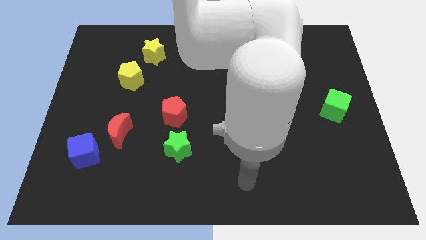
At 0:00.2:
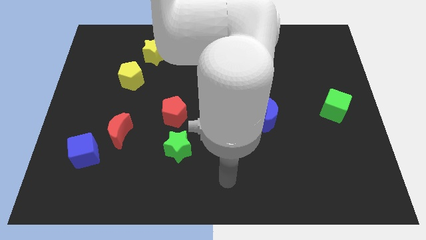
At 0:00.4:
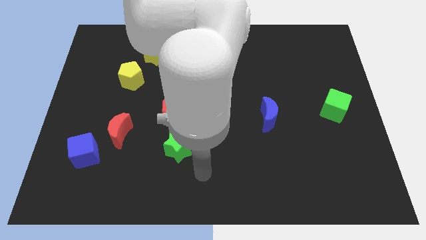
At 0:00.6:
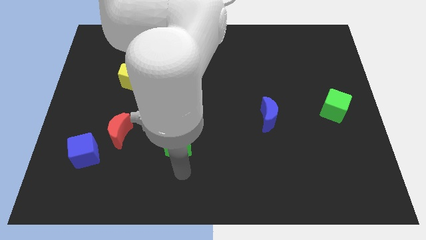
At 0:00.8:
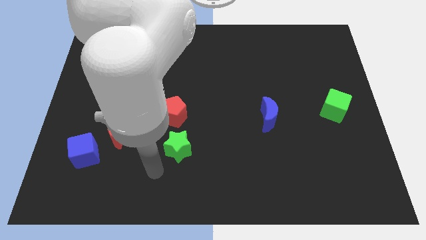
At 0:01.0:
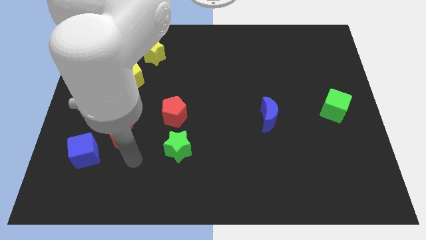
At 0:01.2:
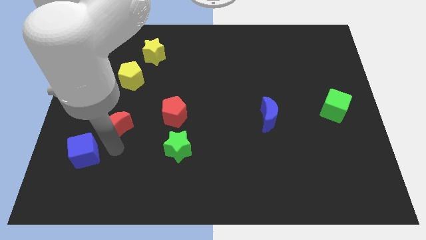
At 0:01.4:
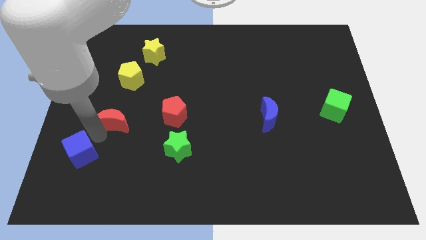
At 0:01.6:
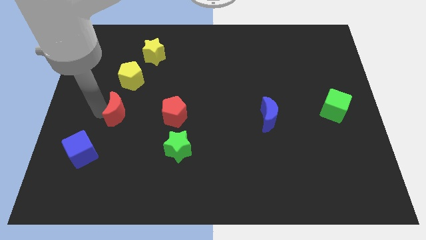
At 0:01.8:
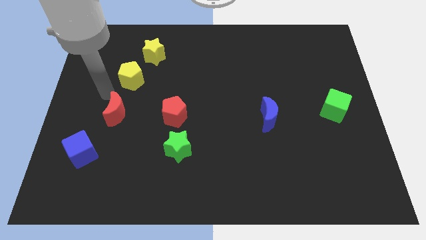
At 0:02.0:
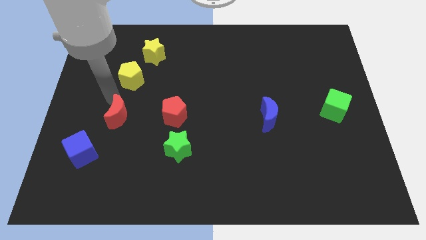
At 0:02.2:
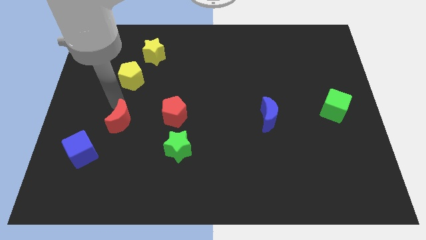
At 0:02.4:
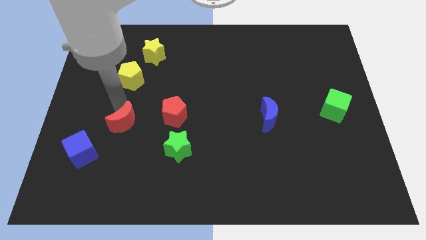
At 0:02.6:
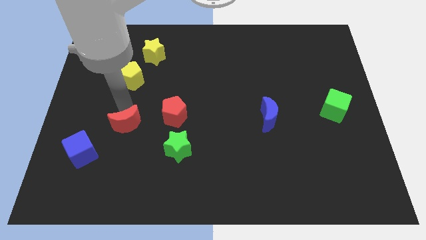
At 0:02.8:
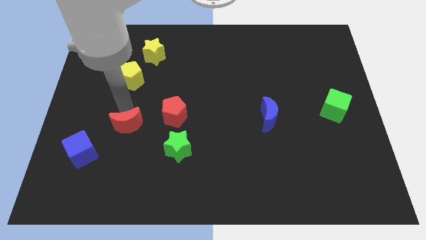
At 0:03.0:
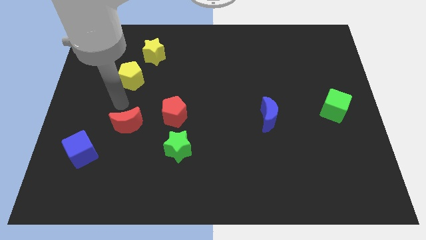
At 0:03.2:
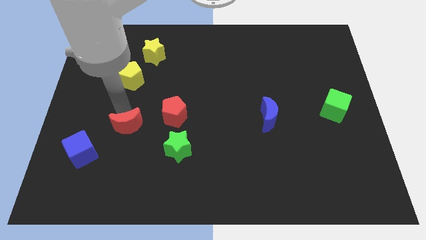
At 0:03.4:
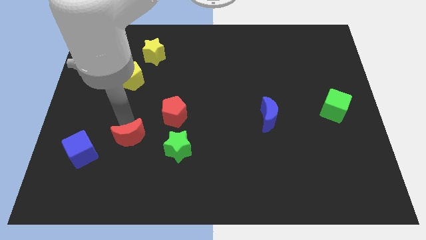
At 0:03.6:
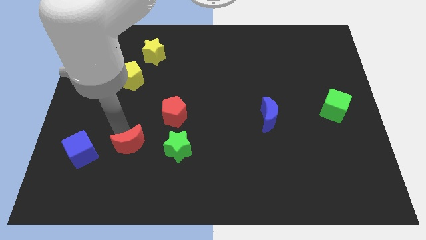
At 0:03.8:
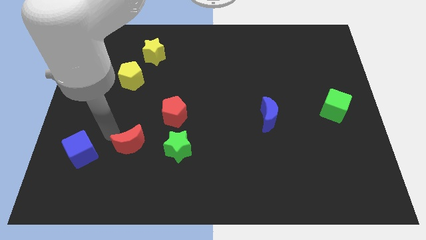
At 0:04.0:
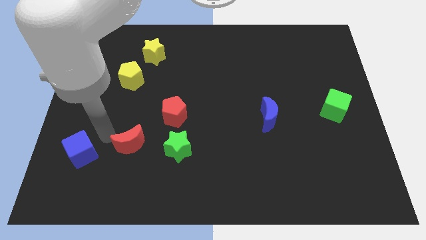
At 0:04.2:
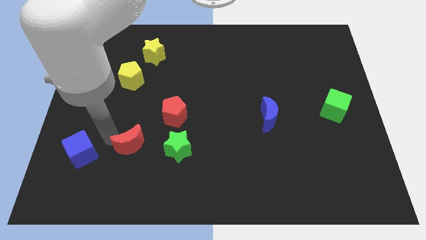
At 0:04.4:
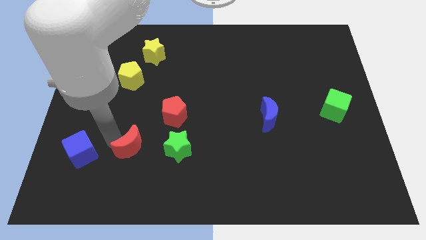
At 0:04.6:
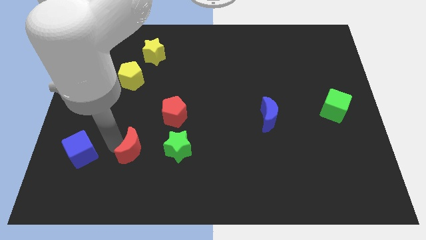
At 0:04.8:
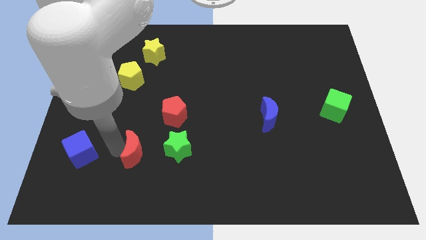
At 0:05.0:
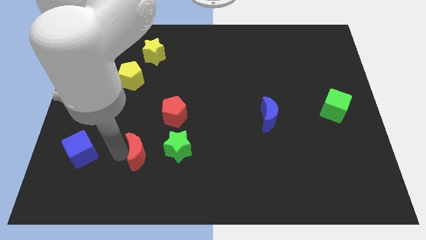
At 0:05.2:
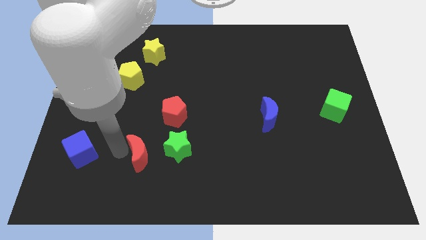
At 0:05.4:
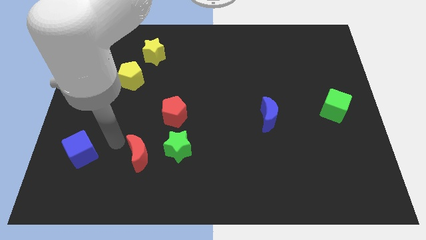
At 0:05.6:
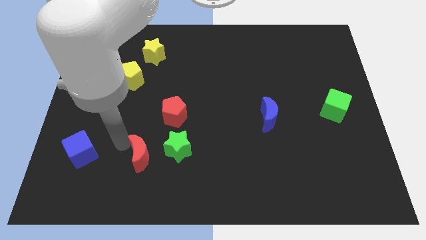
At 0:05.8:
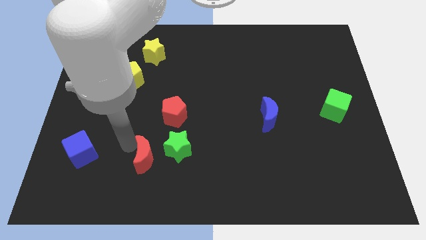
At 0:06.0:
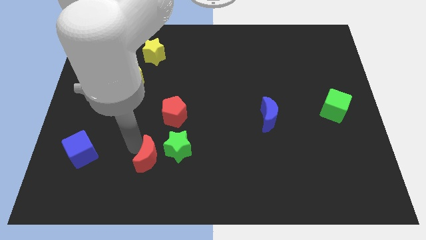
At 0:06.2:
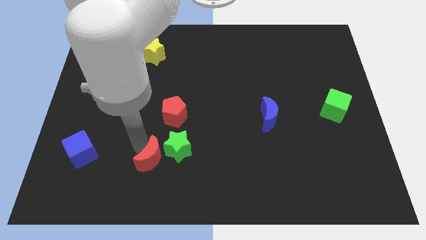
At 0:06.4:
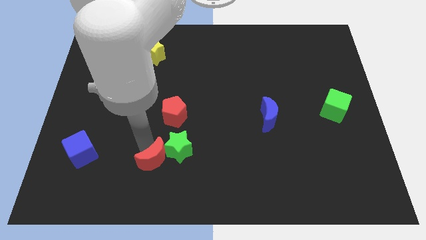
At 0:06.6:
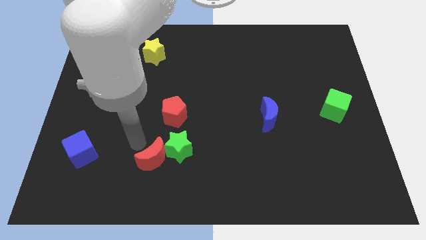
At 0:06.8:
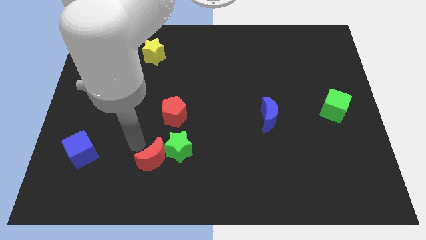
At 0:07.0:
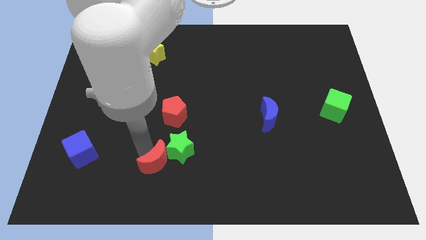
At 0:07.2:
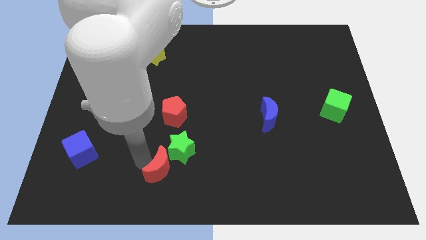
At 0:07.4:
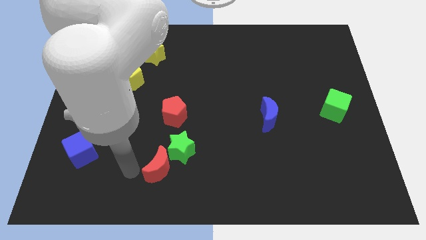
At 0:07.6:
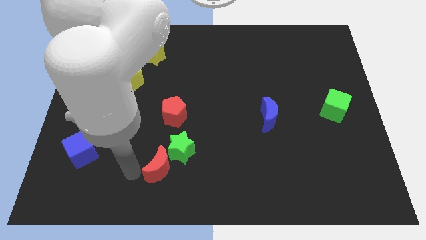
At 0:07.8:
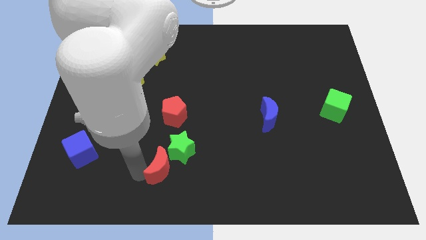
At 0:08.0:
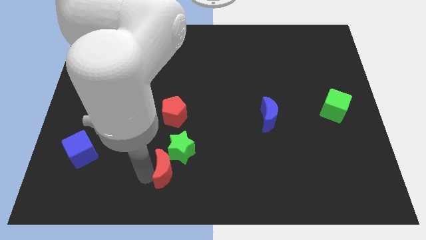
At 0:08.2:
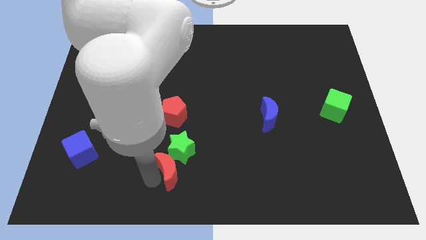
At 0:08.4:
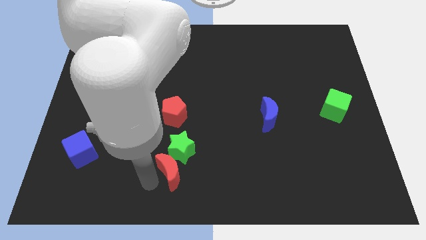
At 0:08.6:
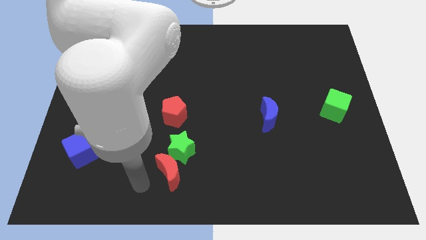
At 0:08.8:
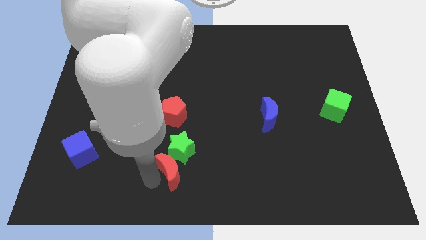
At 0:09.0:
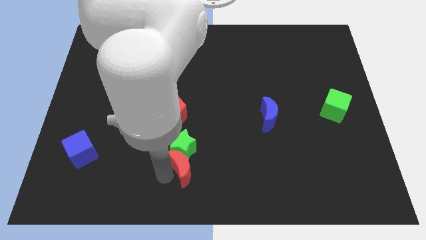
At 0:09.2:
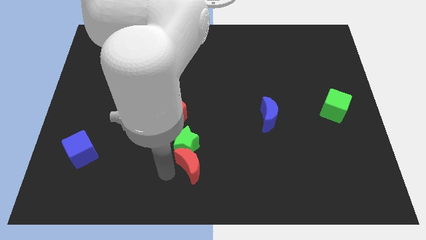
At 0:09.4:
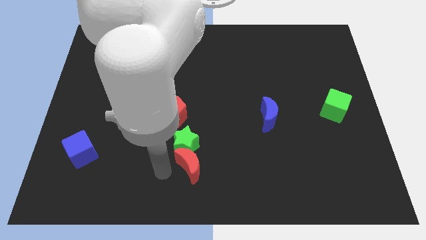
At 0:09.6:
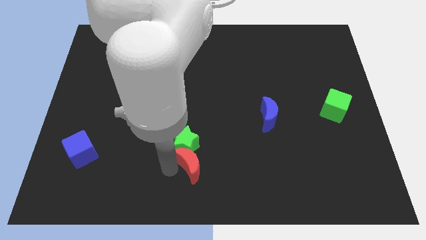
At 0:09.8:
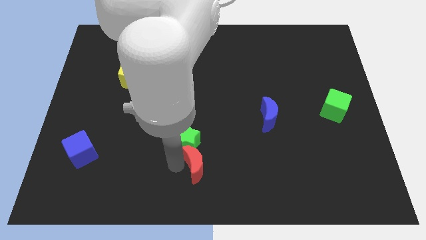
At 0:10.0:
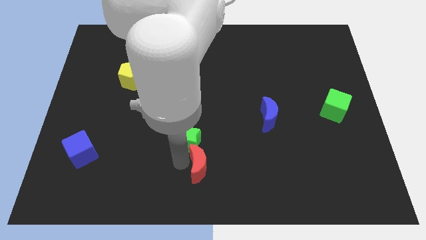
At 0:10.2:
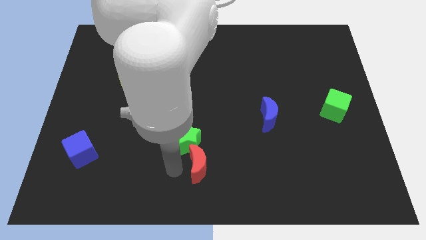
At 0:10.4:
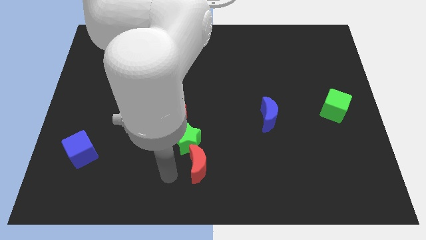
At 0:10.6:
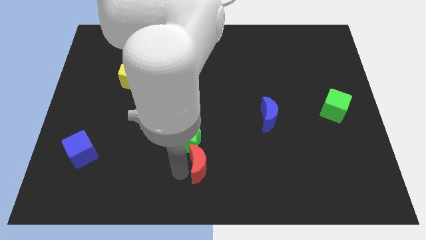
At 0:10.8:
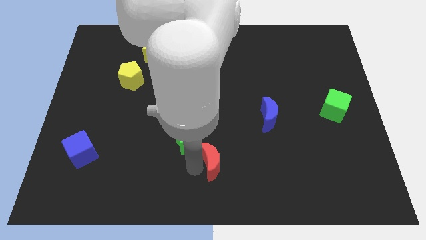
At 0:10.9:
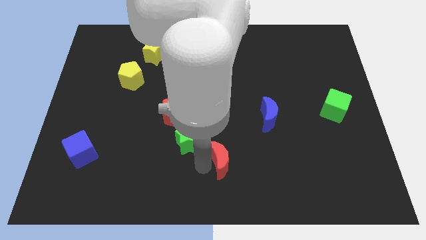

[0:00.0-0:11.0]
move the red moon to the right

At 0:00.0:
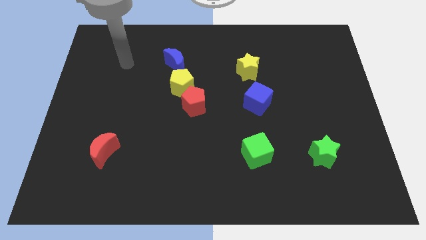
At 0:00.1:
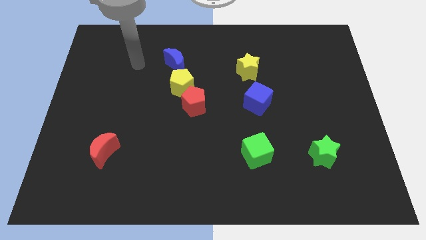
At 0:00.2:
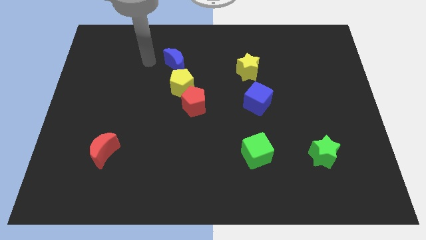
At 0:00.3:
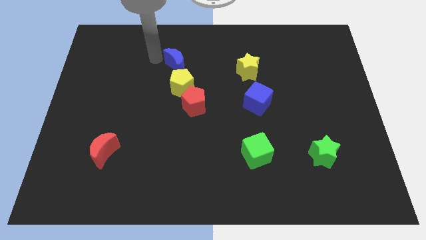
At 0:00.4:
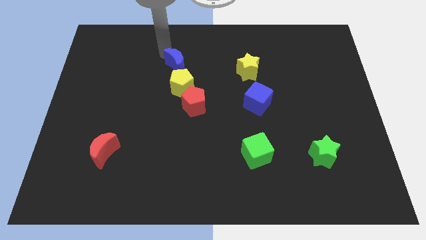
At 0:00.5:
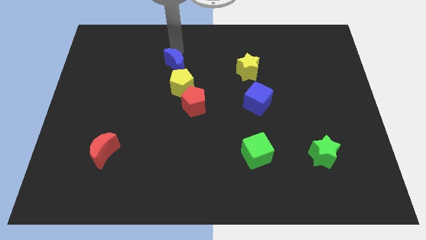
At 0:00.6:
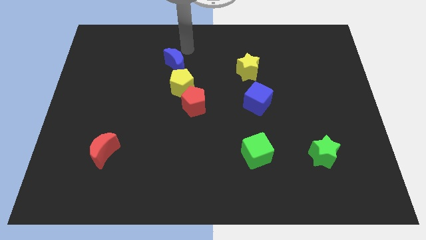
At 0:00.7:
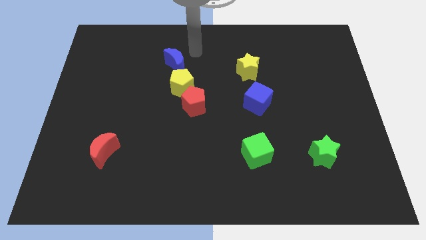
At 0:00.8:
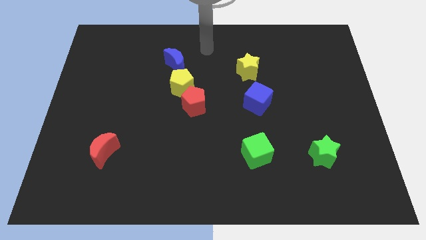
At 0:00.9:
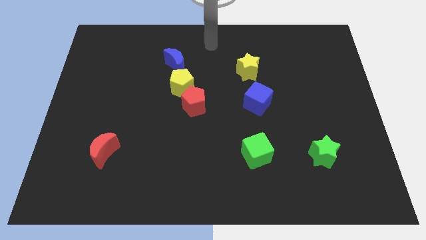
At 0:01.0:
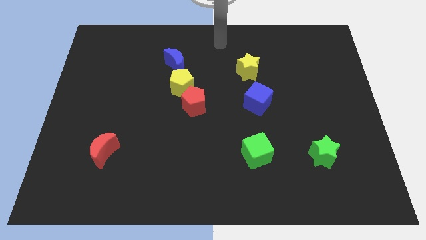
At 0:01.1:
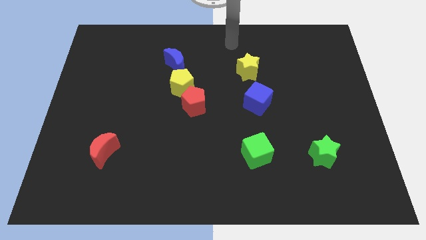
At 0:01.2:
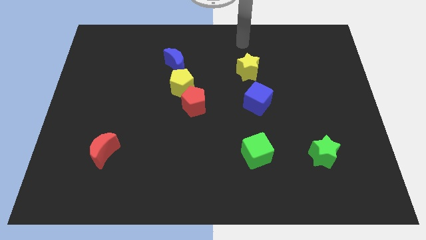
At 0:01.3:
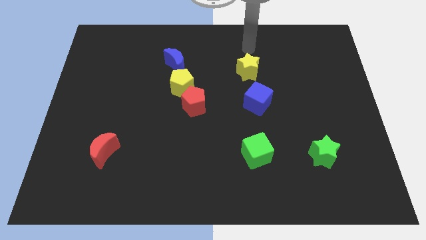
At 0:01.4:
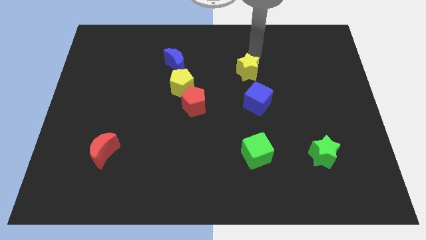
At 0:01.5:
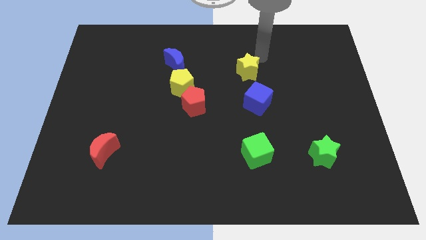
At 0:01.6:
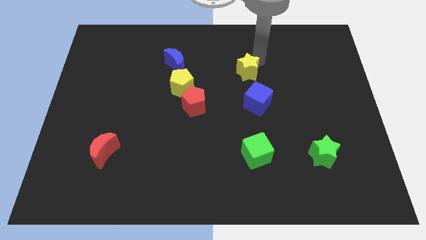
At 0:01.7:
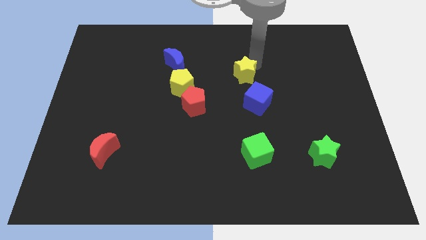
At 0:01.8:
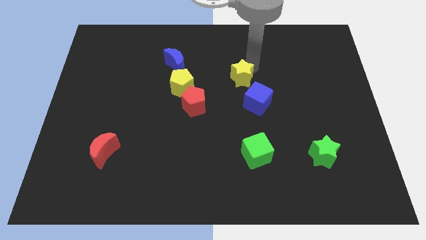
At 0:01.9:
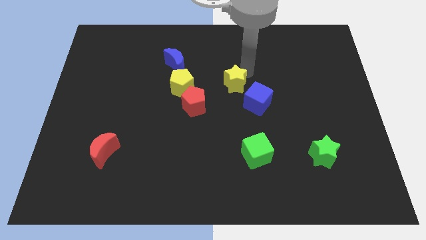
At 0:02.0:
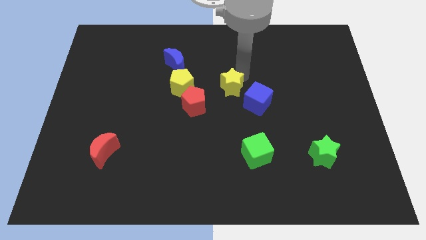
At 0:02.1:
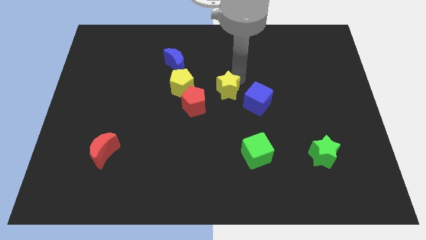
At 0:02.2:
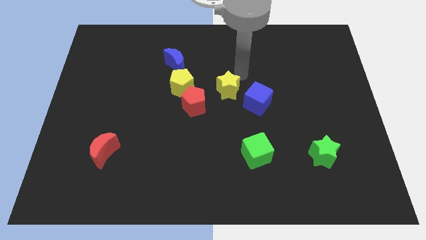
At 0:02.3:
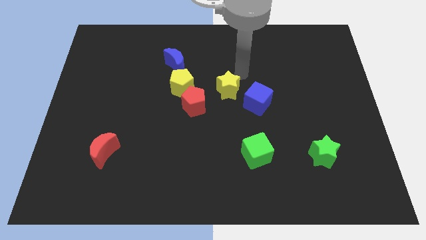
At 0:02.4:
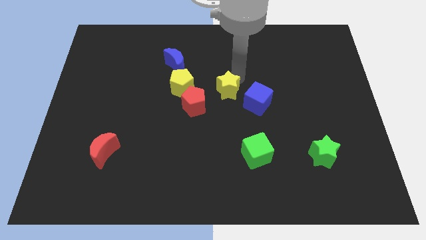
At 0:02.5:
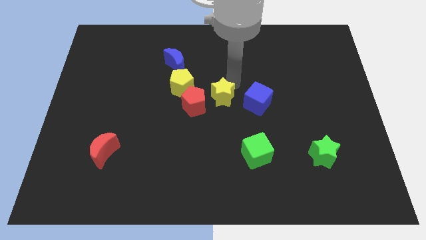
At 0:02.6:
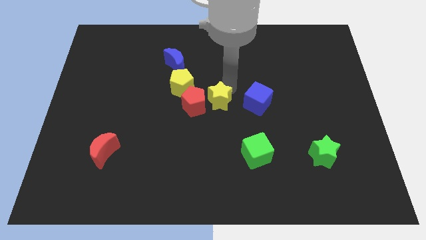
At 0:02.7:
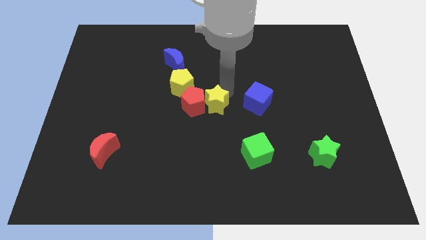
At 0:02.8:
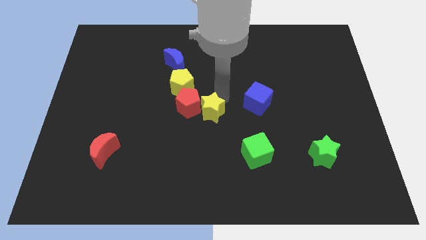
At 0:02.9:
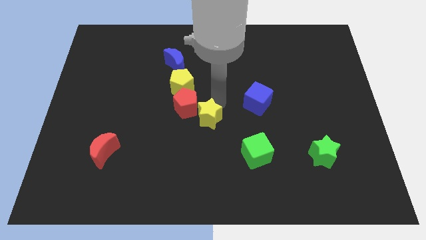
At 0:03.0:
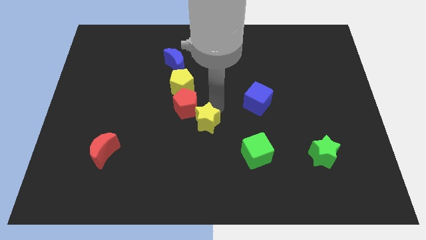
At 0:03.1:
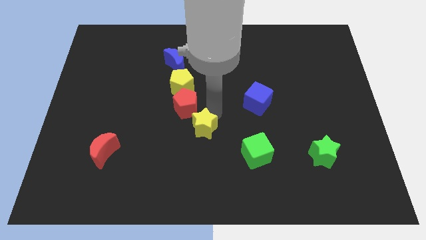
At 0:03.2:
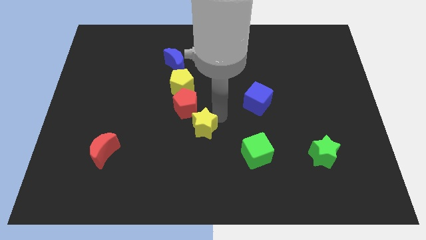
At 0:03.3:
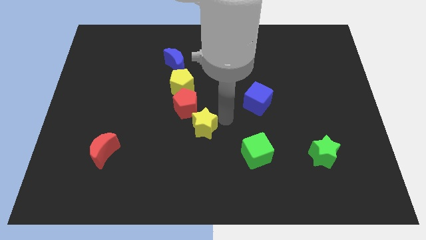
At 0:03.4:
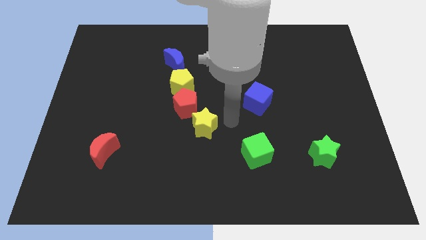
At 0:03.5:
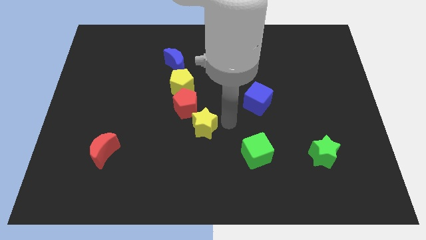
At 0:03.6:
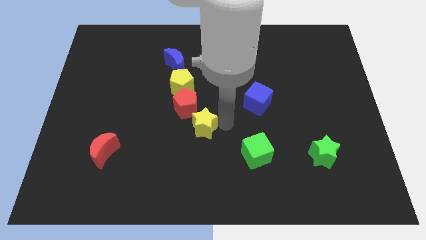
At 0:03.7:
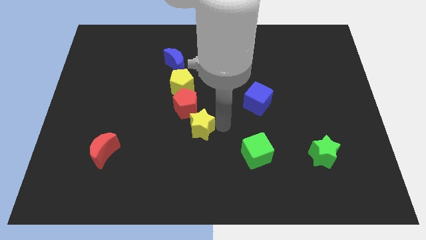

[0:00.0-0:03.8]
slide the yellow star downwards and then to the left
